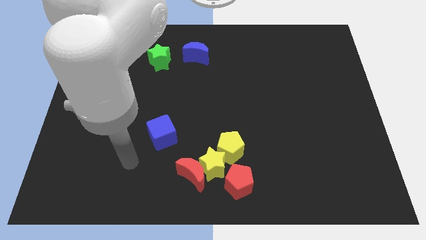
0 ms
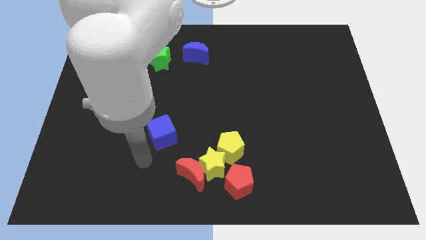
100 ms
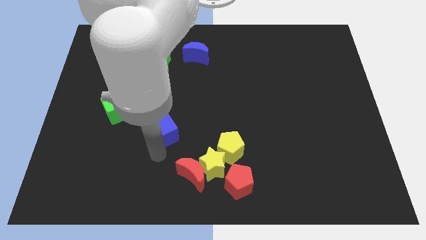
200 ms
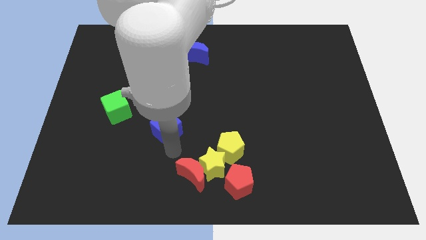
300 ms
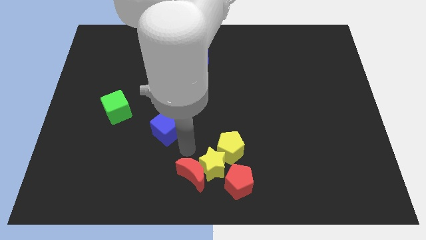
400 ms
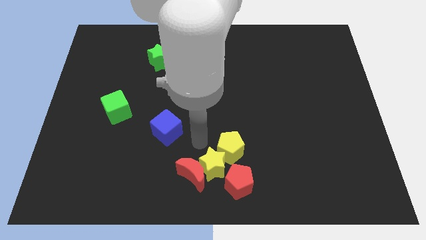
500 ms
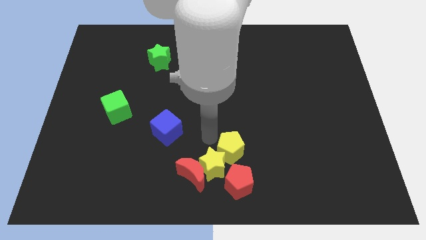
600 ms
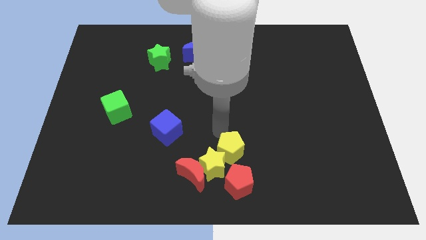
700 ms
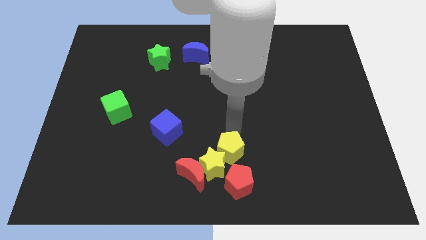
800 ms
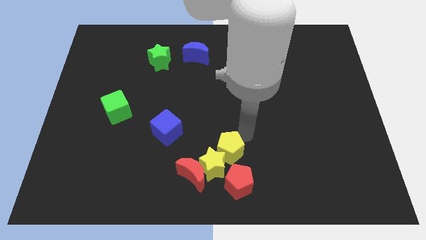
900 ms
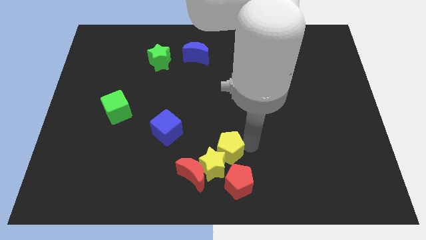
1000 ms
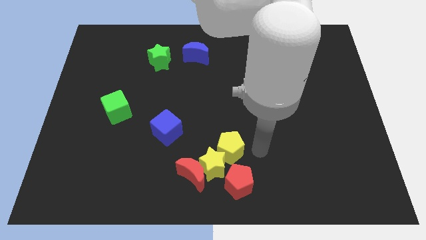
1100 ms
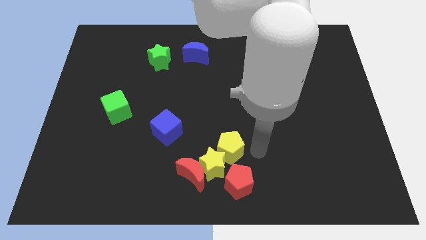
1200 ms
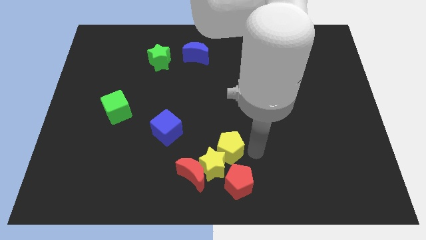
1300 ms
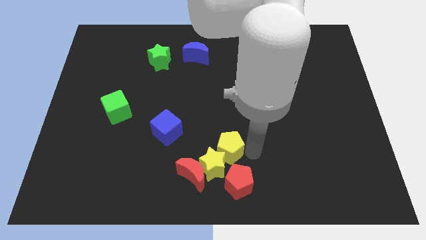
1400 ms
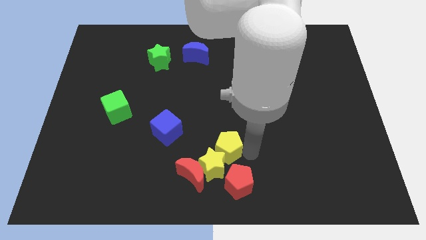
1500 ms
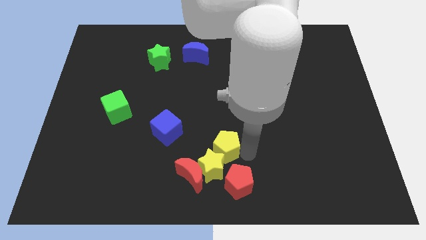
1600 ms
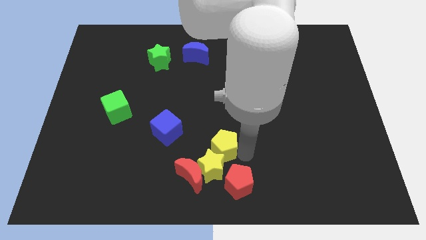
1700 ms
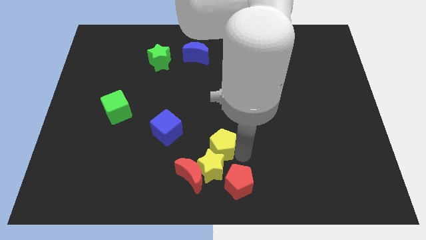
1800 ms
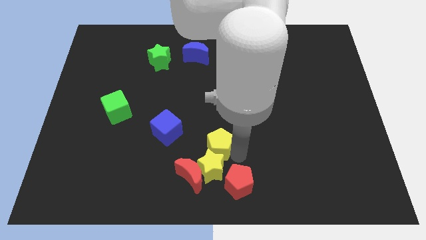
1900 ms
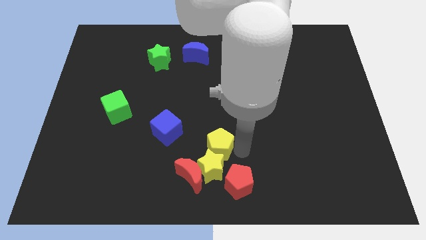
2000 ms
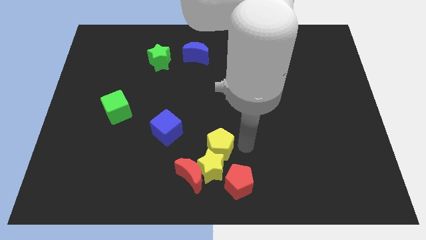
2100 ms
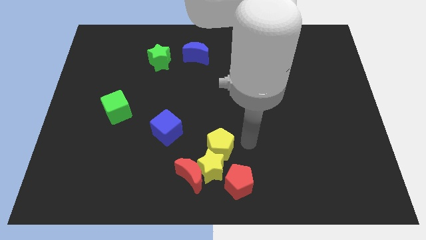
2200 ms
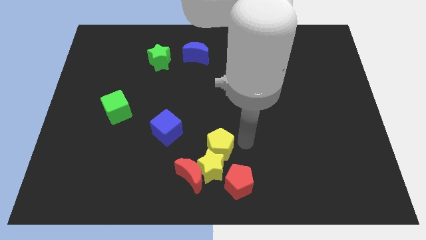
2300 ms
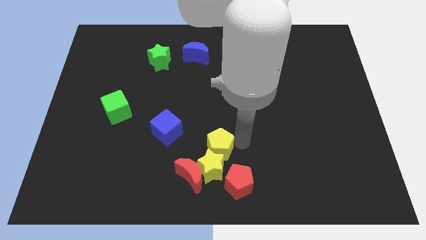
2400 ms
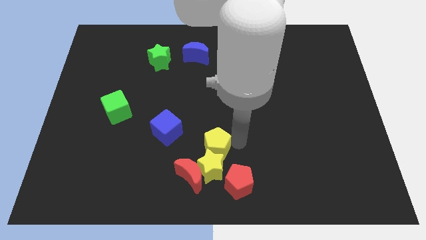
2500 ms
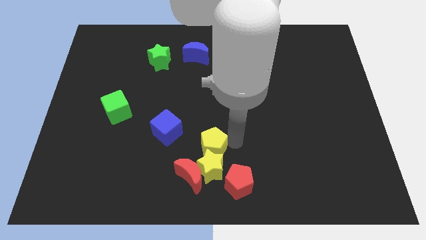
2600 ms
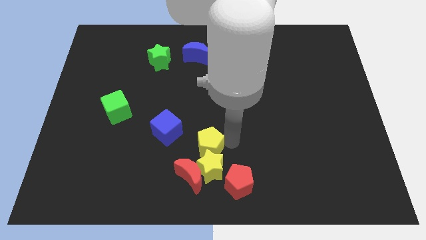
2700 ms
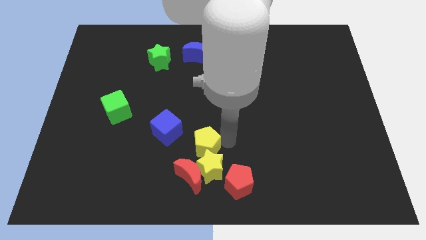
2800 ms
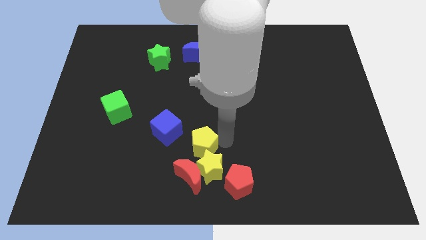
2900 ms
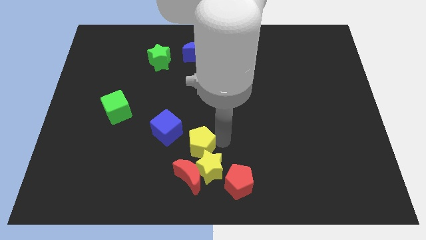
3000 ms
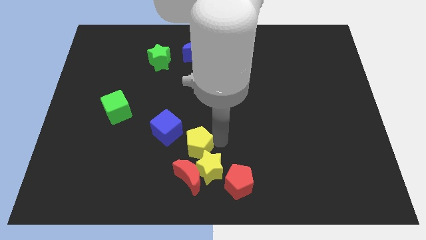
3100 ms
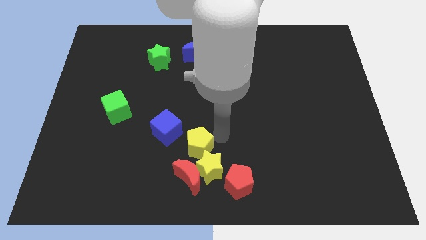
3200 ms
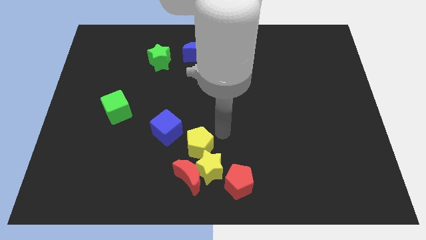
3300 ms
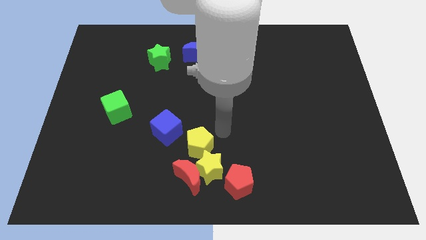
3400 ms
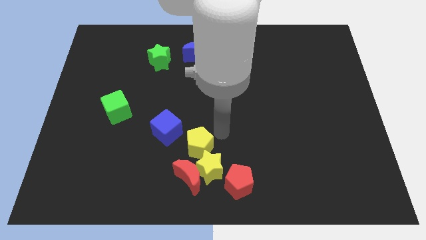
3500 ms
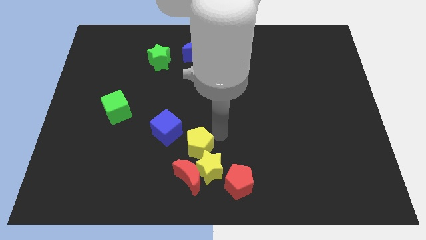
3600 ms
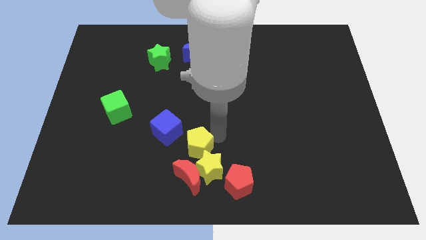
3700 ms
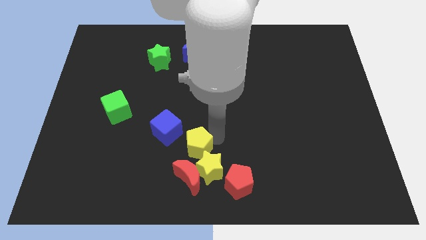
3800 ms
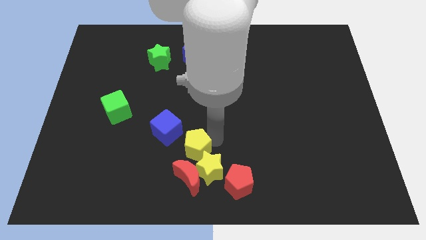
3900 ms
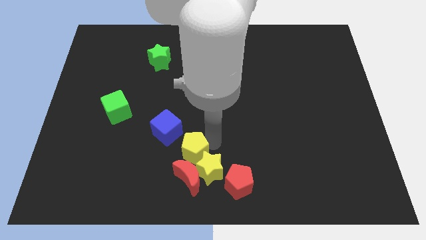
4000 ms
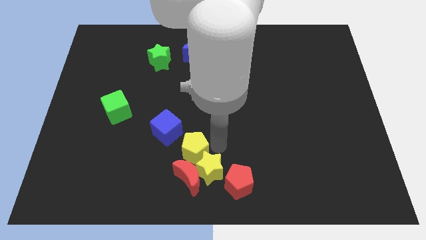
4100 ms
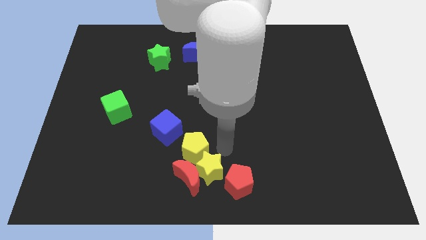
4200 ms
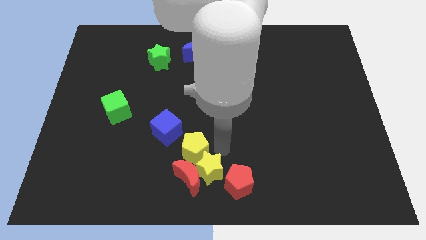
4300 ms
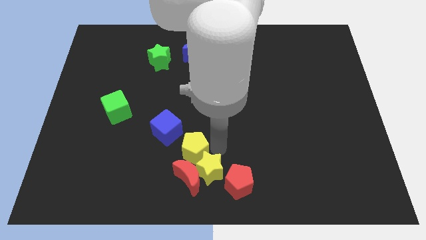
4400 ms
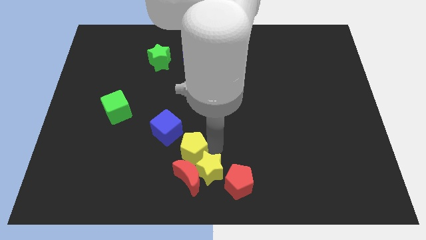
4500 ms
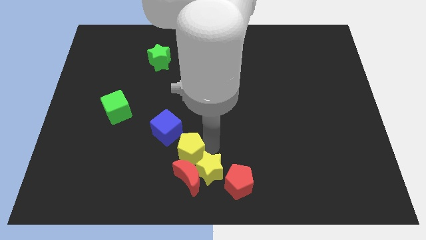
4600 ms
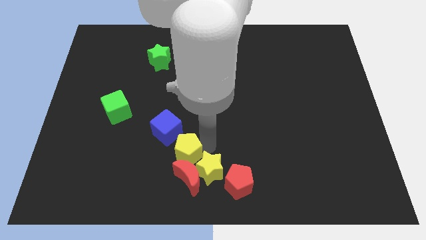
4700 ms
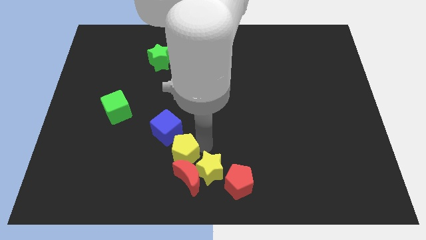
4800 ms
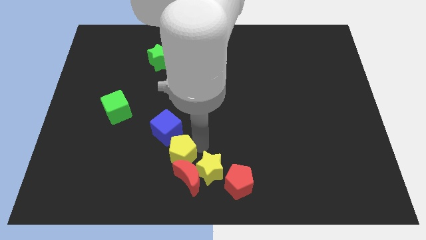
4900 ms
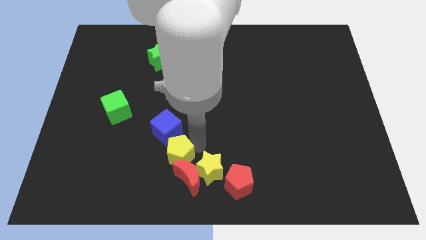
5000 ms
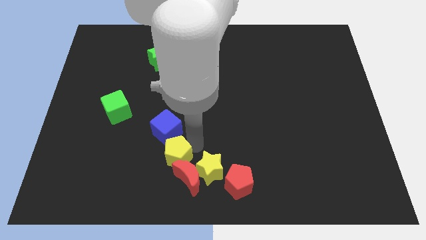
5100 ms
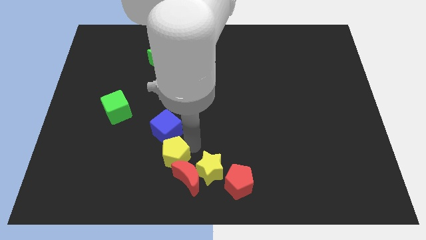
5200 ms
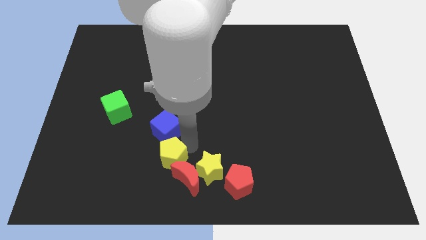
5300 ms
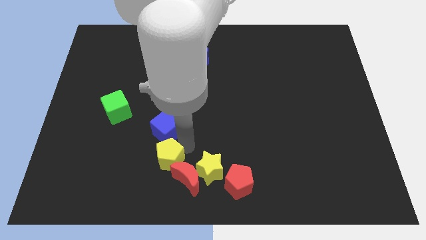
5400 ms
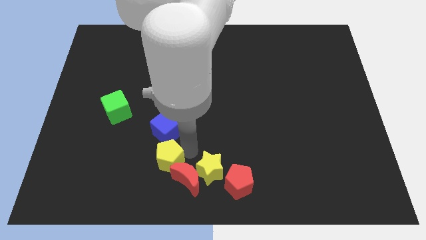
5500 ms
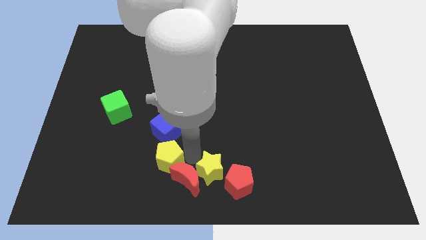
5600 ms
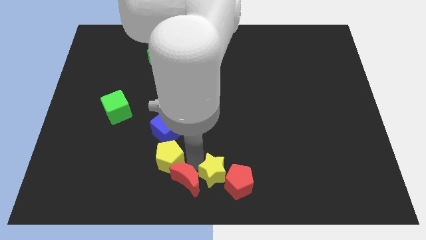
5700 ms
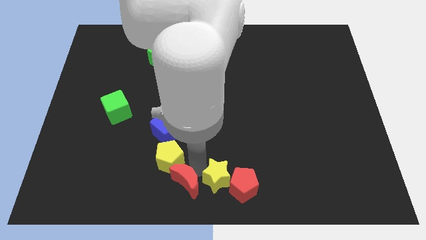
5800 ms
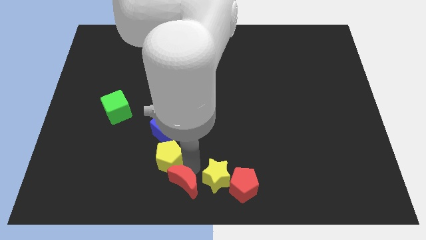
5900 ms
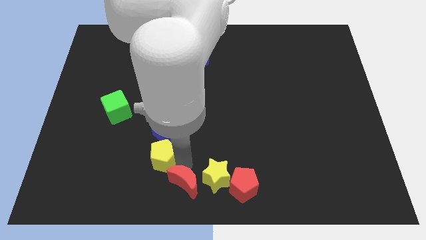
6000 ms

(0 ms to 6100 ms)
put the yellow pentagon diagonally down and to the left of the blue cube

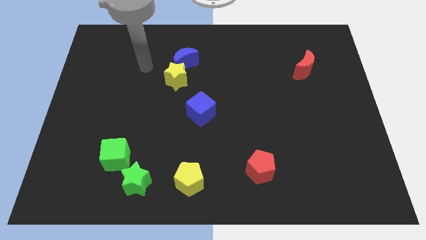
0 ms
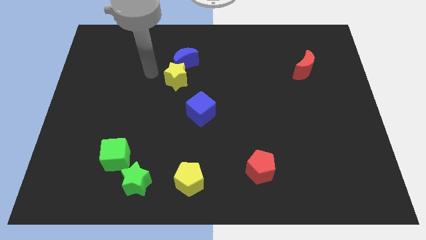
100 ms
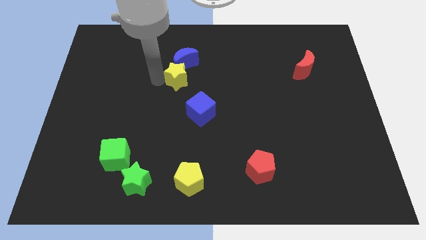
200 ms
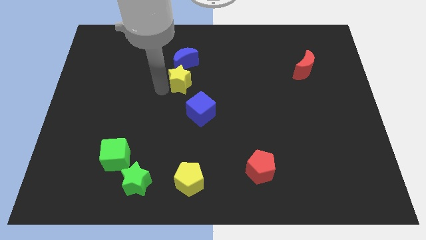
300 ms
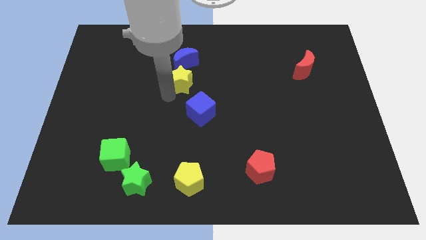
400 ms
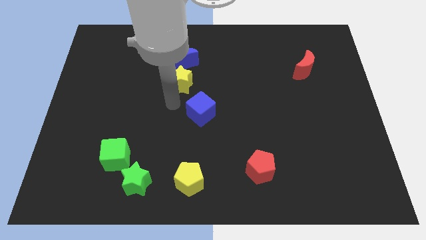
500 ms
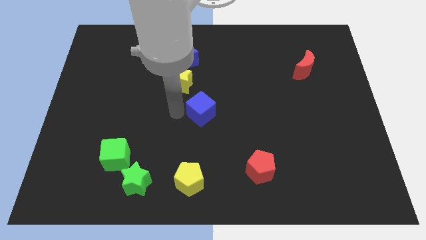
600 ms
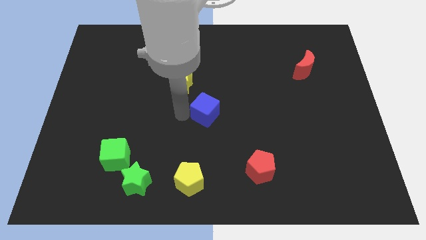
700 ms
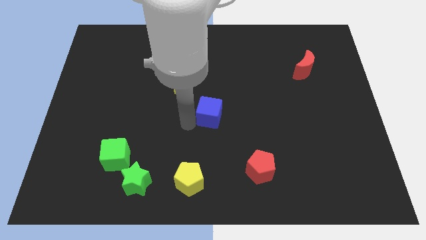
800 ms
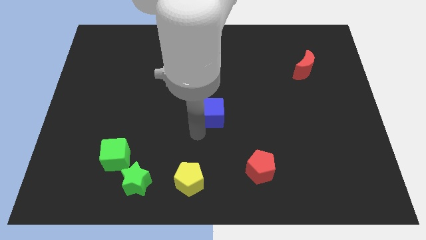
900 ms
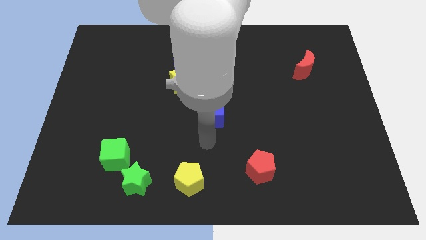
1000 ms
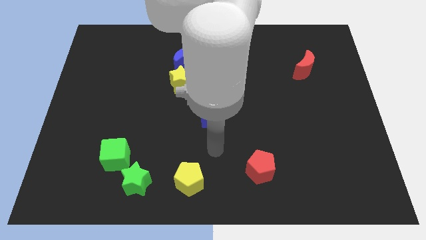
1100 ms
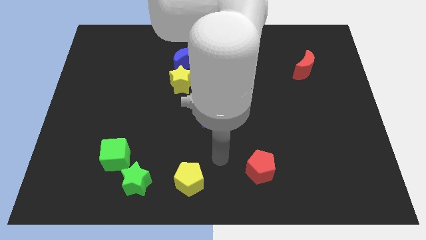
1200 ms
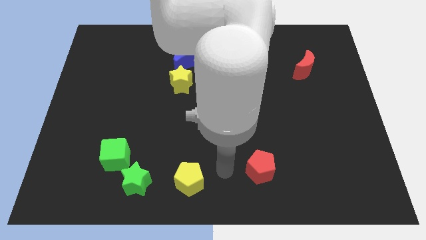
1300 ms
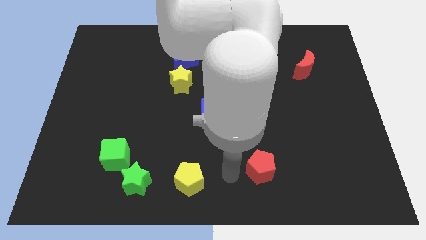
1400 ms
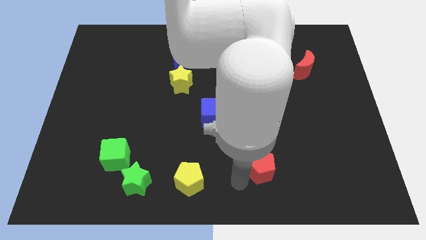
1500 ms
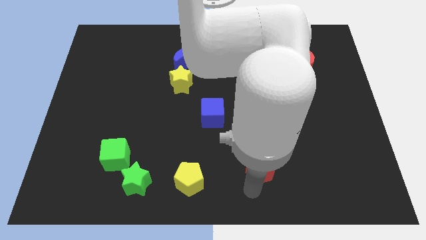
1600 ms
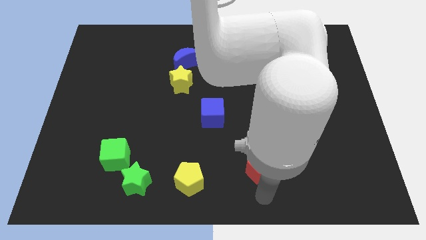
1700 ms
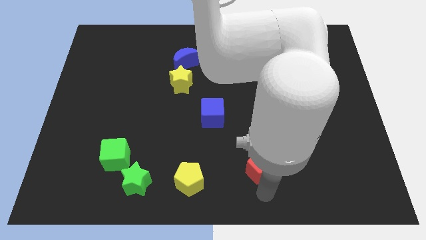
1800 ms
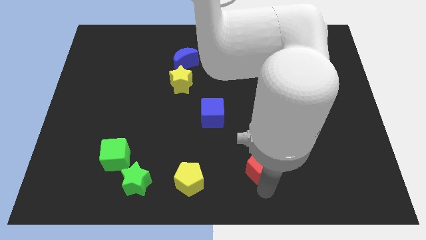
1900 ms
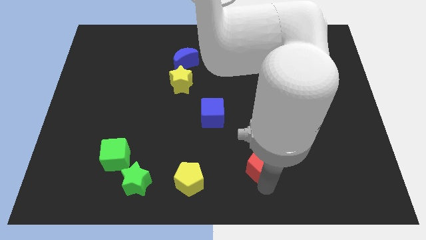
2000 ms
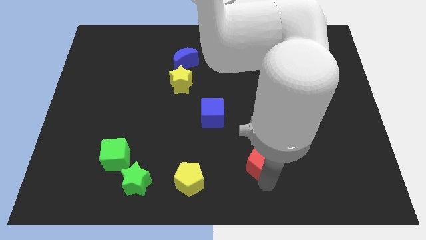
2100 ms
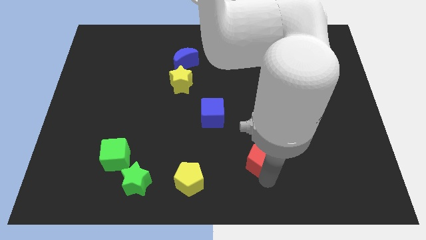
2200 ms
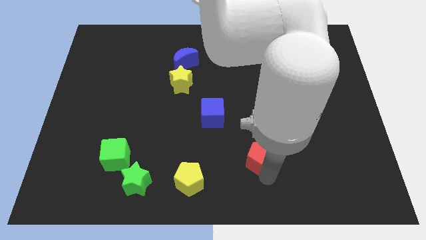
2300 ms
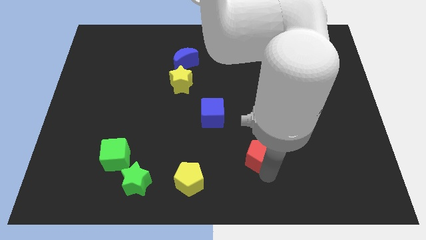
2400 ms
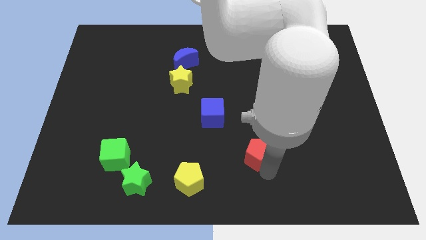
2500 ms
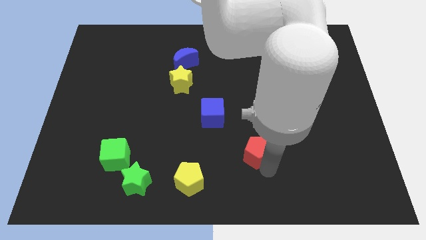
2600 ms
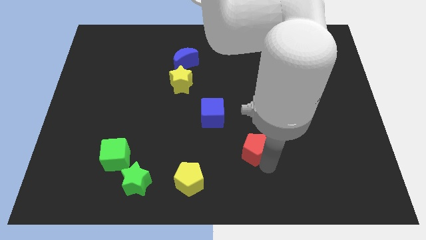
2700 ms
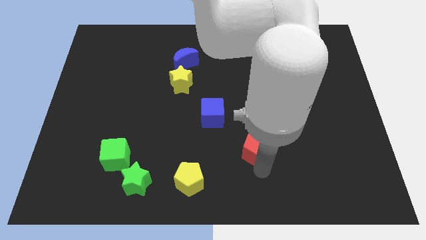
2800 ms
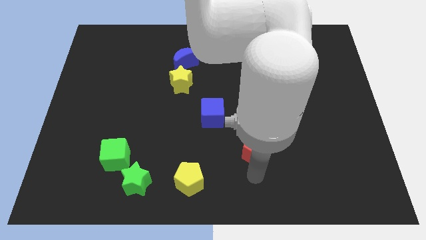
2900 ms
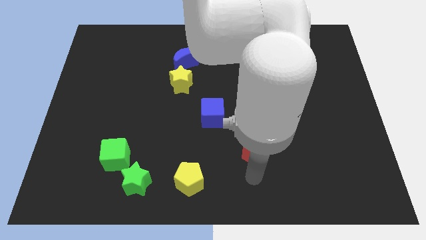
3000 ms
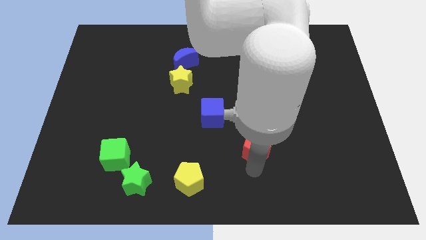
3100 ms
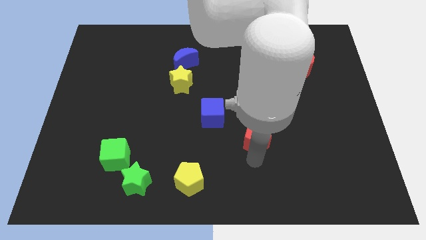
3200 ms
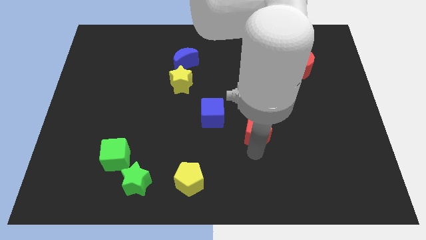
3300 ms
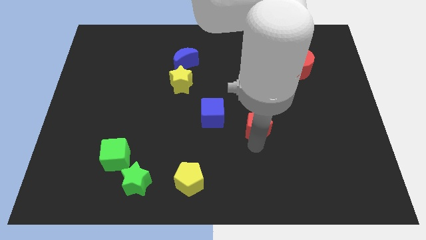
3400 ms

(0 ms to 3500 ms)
put the red pentagon to the right of the blue cube
